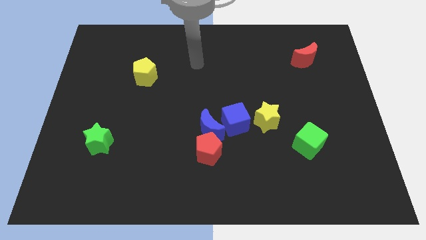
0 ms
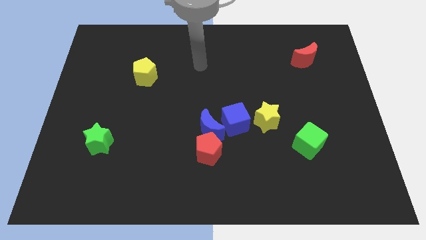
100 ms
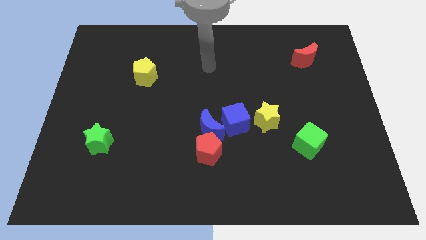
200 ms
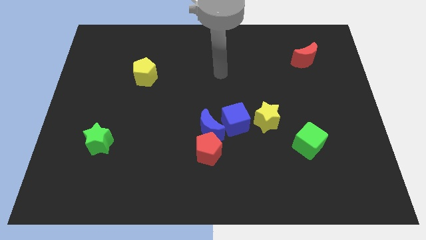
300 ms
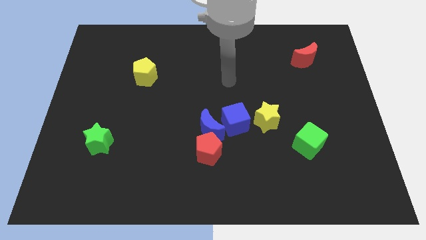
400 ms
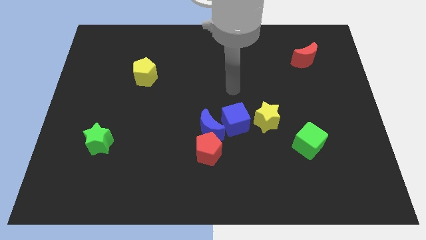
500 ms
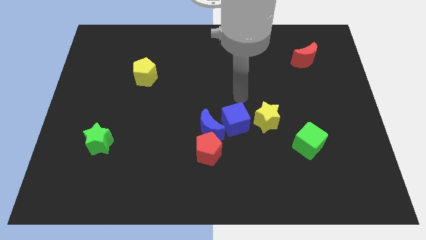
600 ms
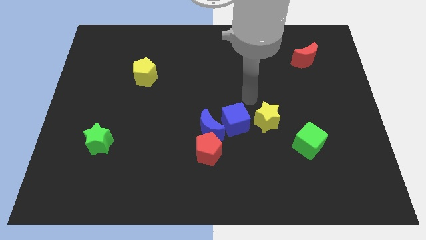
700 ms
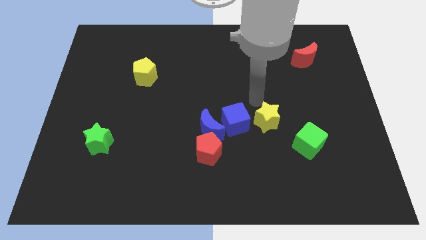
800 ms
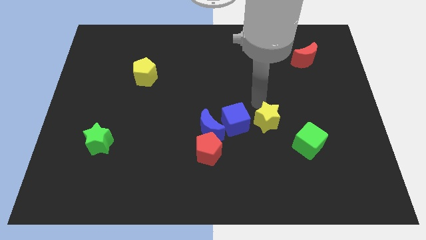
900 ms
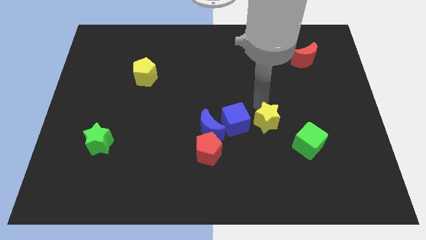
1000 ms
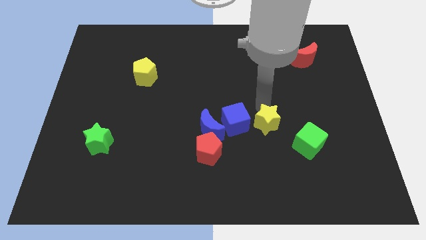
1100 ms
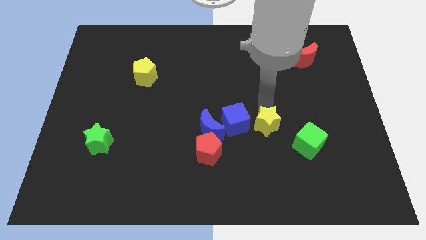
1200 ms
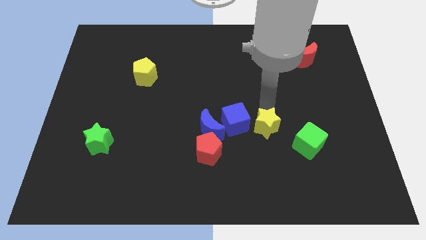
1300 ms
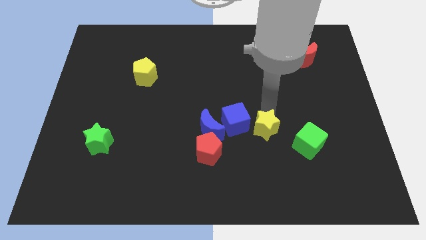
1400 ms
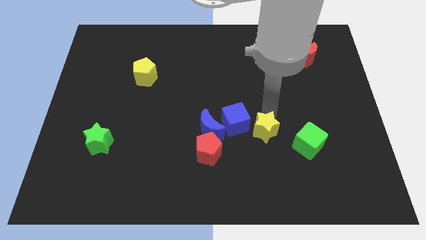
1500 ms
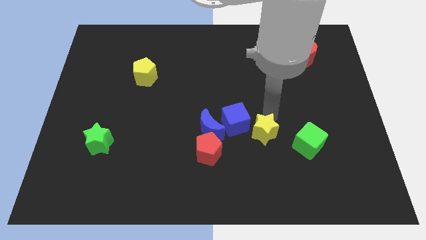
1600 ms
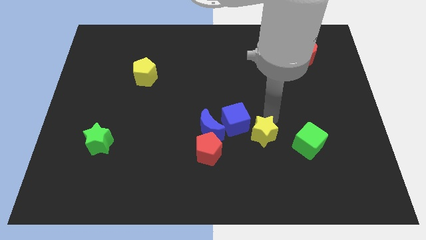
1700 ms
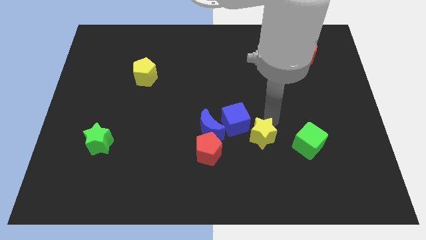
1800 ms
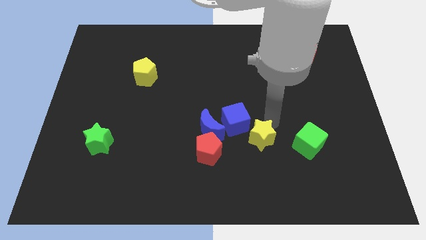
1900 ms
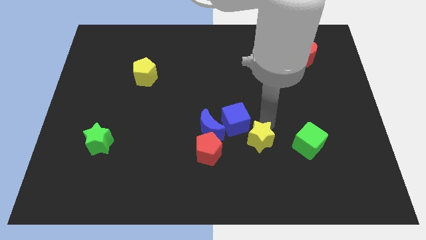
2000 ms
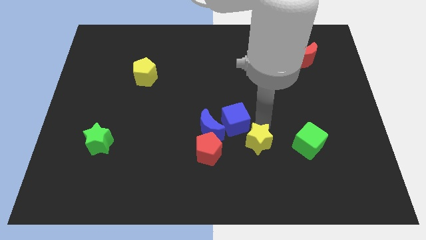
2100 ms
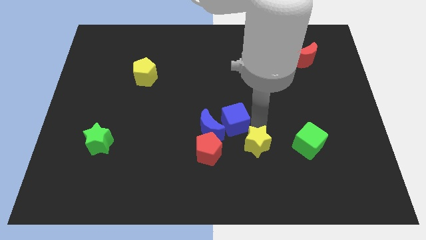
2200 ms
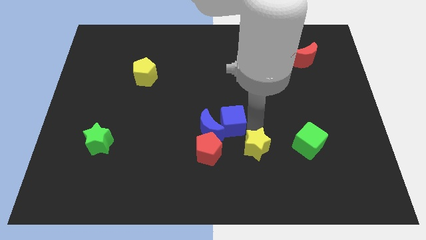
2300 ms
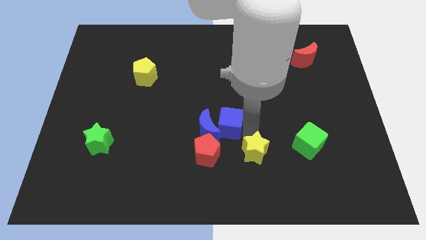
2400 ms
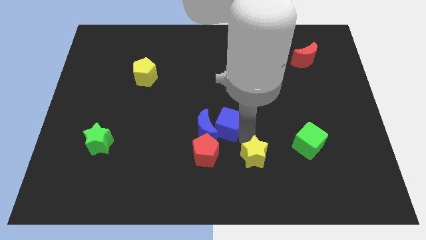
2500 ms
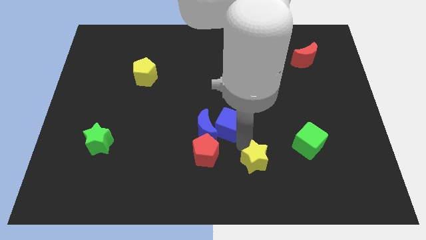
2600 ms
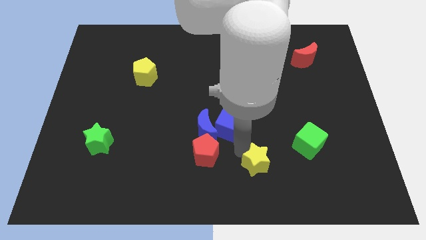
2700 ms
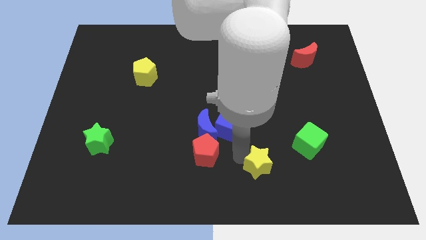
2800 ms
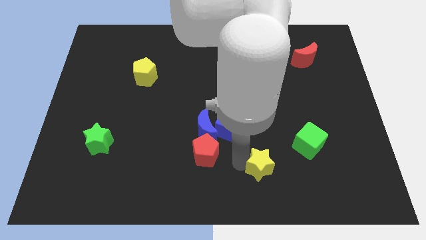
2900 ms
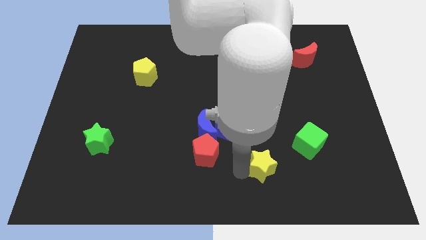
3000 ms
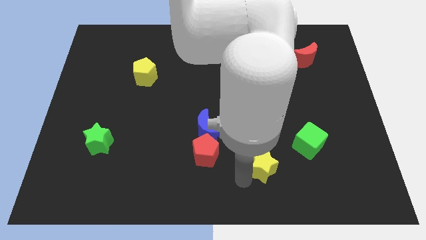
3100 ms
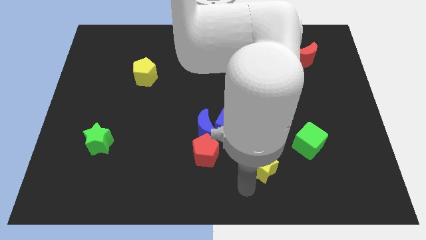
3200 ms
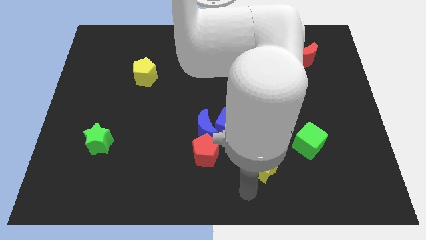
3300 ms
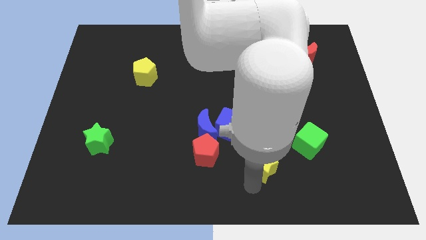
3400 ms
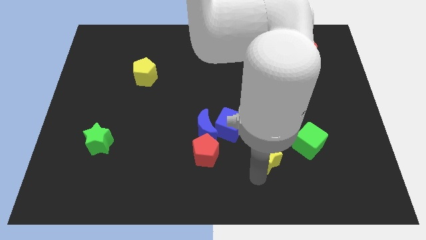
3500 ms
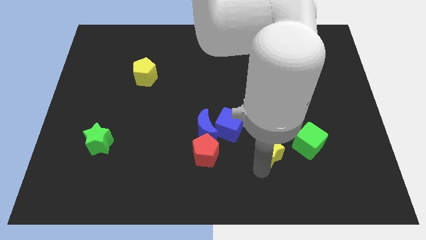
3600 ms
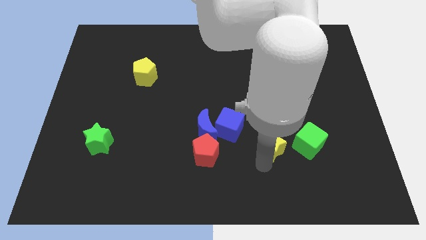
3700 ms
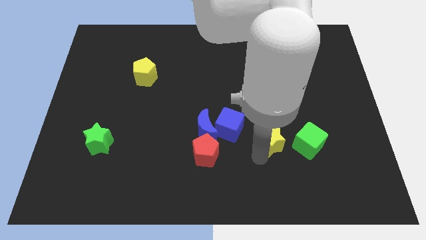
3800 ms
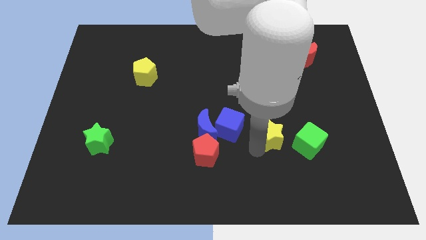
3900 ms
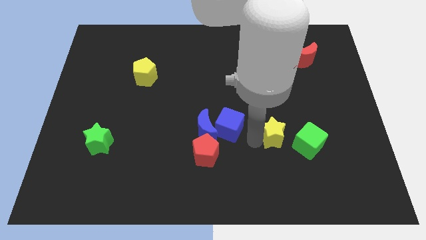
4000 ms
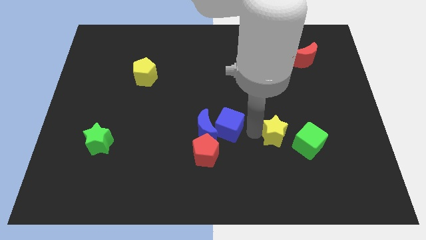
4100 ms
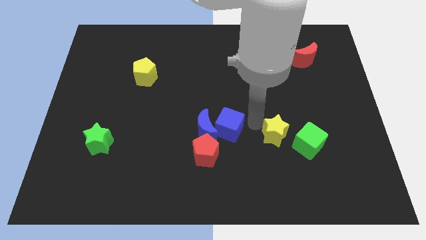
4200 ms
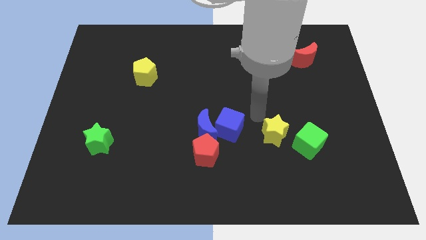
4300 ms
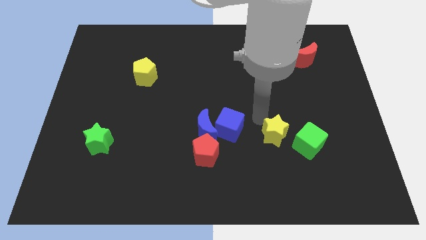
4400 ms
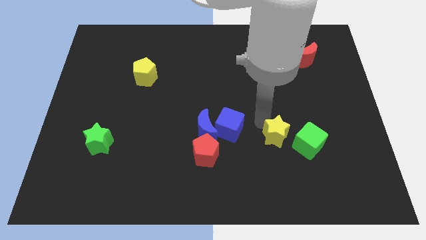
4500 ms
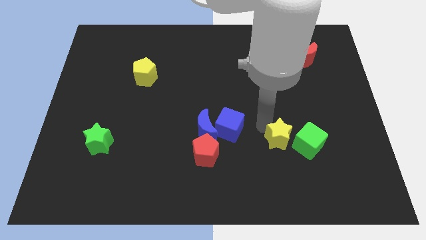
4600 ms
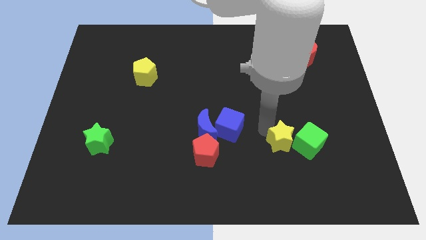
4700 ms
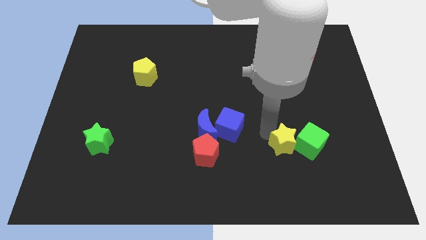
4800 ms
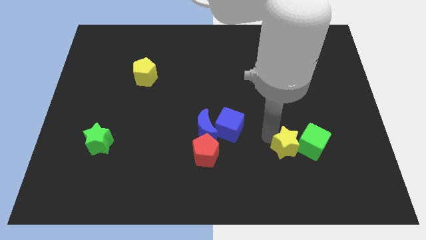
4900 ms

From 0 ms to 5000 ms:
move the yellow star a bit down and right

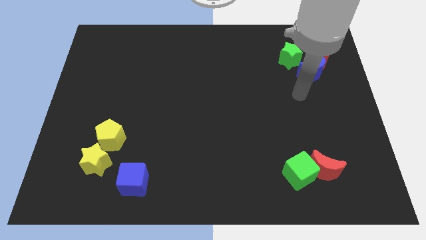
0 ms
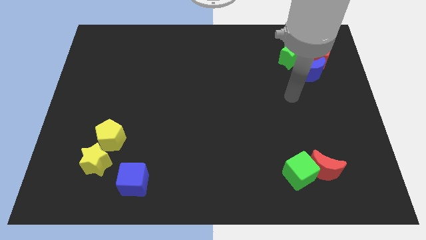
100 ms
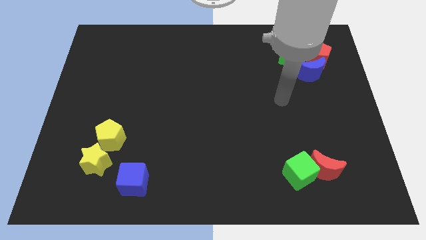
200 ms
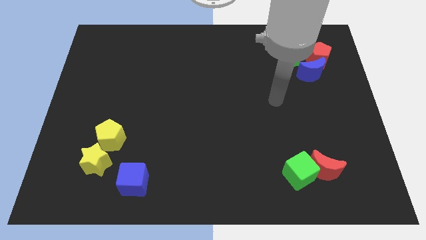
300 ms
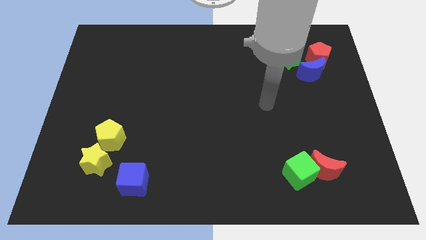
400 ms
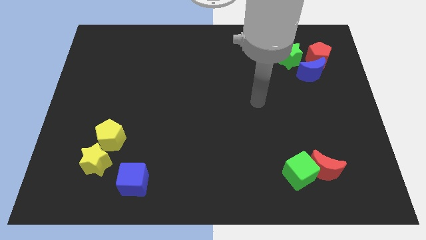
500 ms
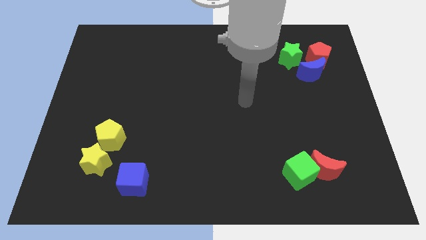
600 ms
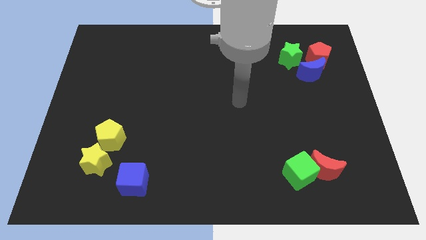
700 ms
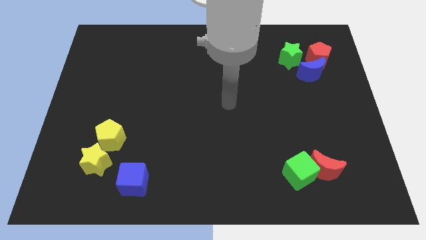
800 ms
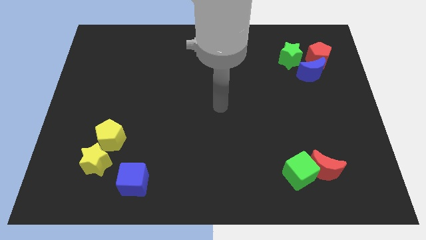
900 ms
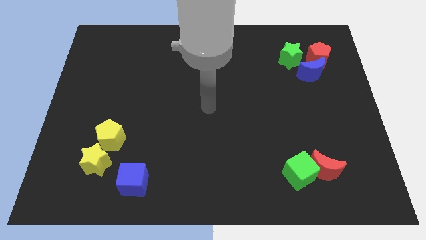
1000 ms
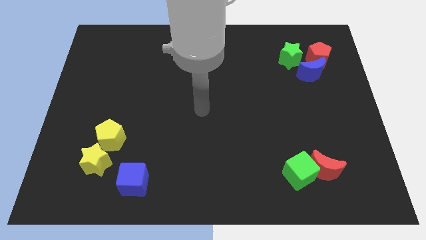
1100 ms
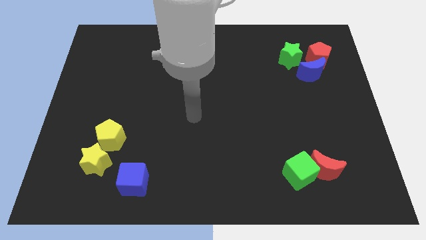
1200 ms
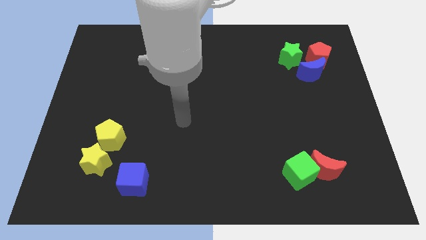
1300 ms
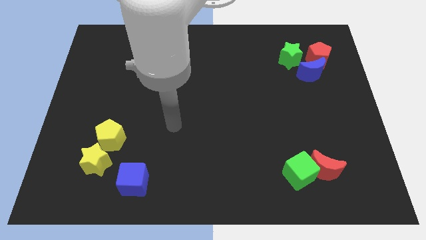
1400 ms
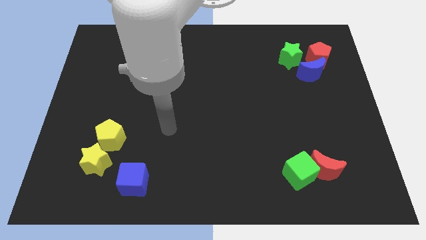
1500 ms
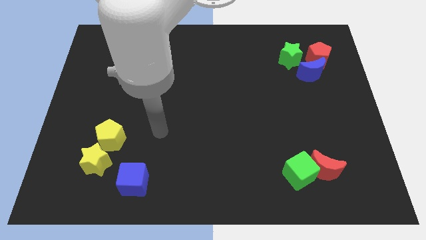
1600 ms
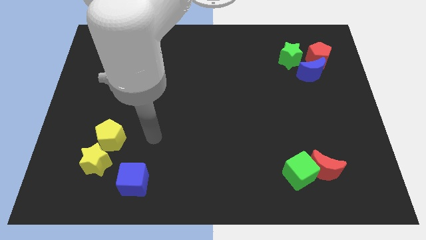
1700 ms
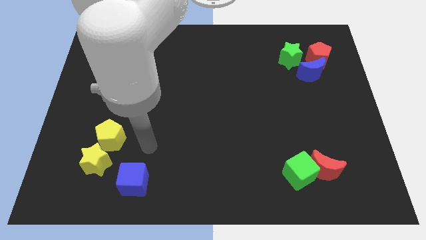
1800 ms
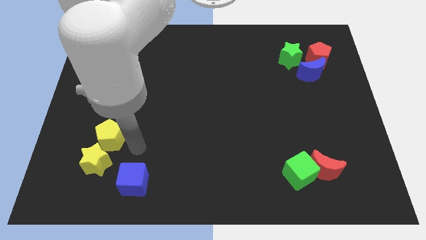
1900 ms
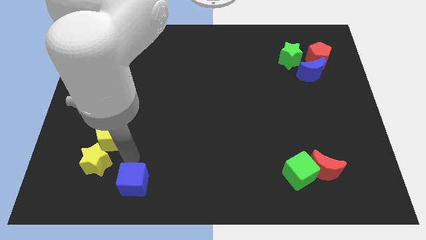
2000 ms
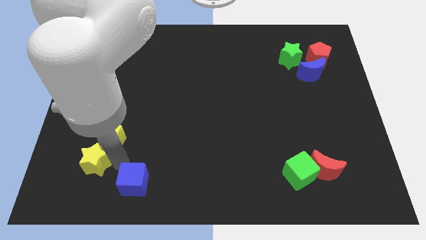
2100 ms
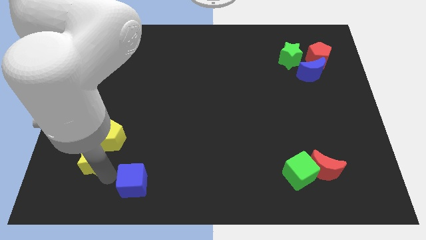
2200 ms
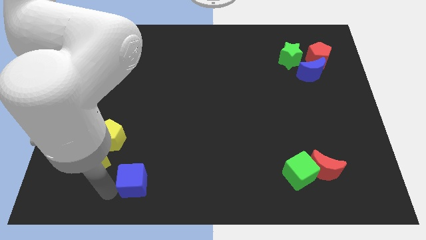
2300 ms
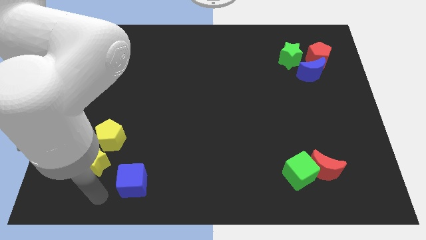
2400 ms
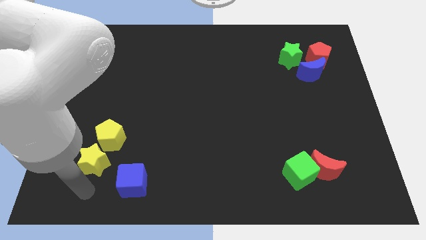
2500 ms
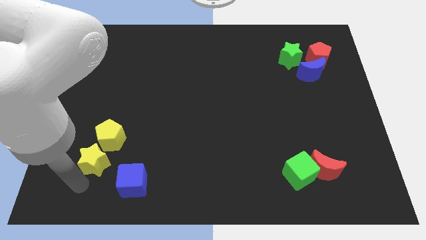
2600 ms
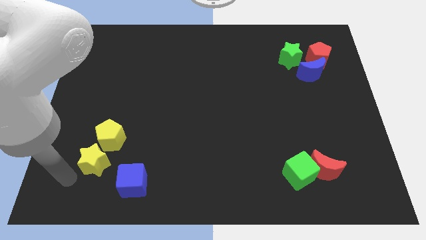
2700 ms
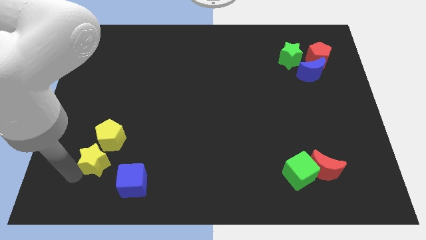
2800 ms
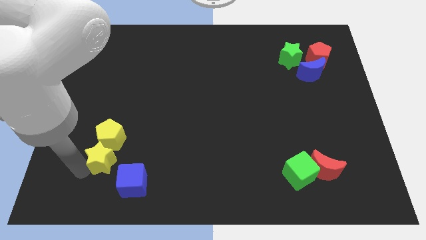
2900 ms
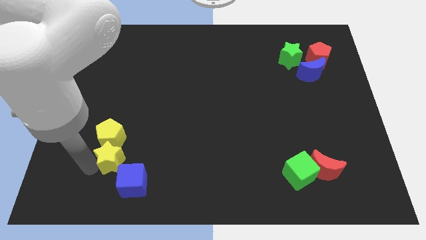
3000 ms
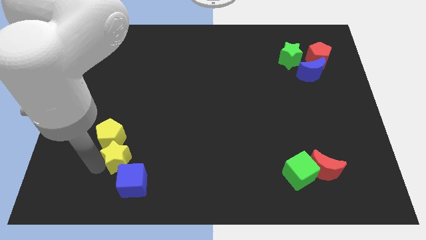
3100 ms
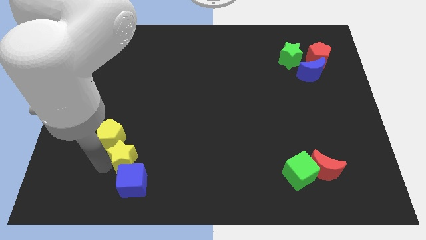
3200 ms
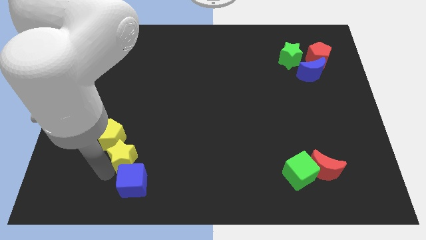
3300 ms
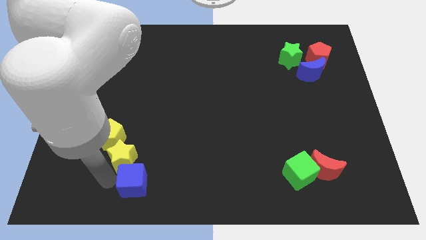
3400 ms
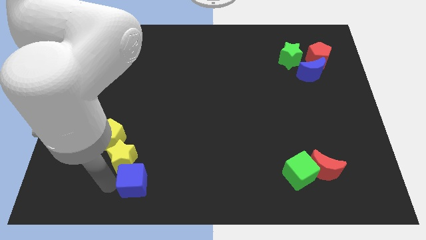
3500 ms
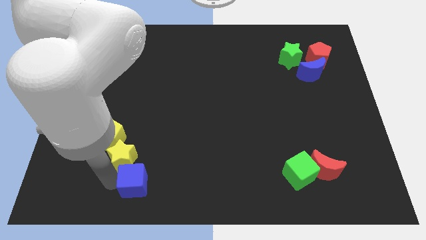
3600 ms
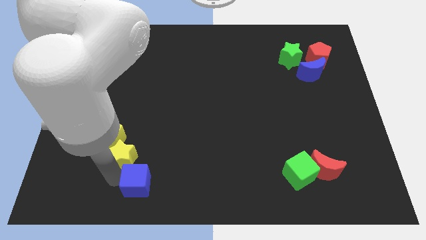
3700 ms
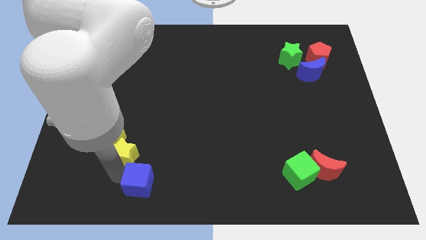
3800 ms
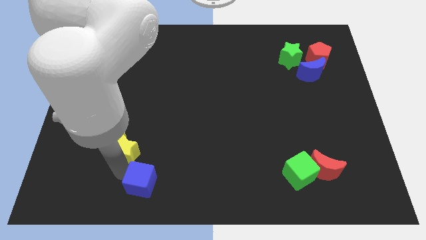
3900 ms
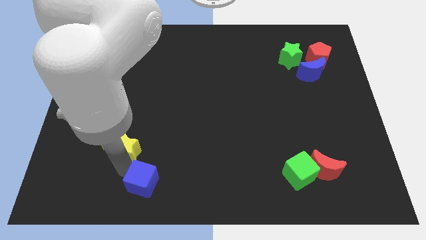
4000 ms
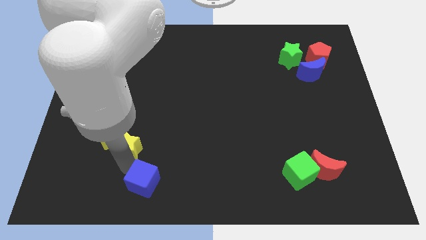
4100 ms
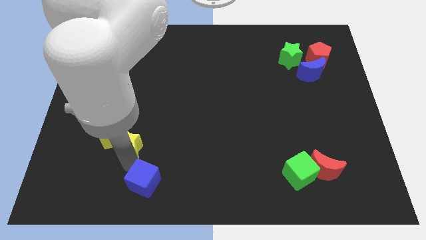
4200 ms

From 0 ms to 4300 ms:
move the yellow star slightly diagonally up and to the right
